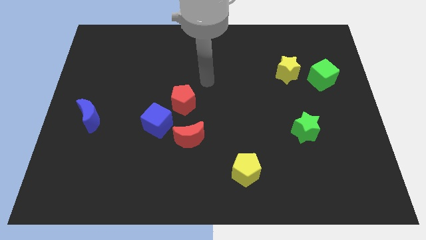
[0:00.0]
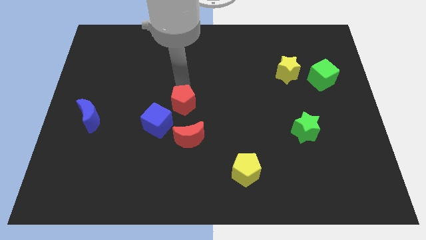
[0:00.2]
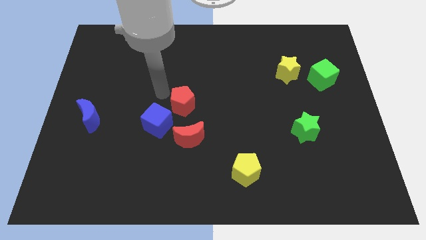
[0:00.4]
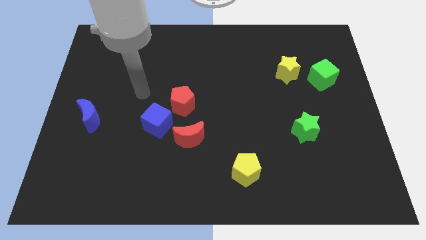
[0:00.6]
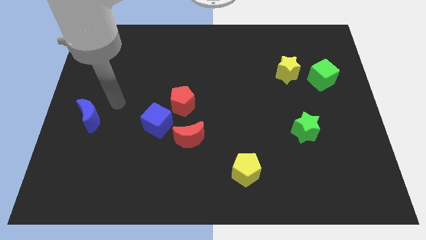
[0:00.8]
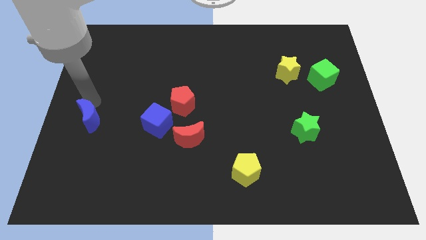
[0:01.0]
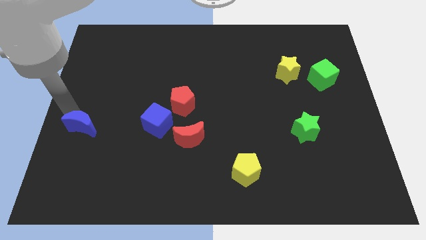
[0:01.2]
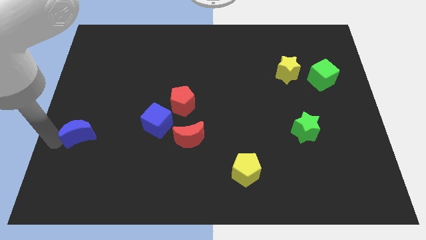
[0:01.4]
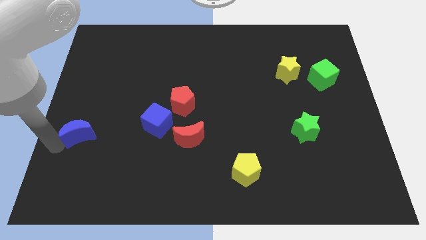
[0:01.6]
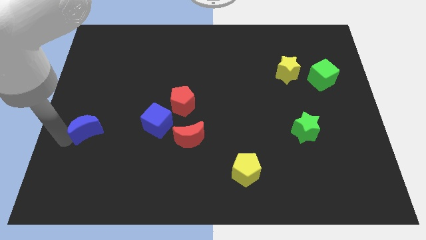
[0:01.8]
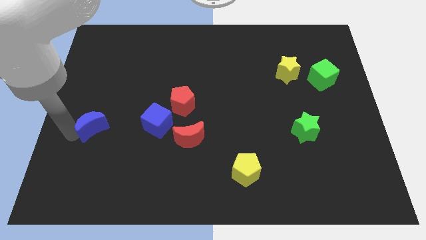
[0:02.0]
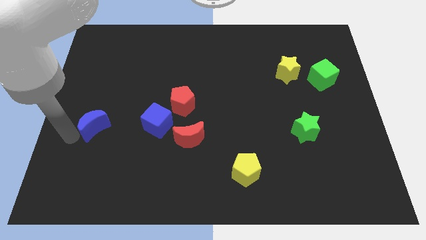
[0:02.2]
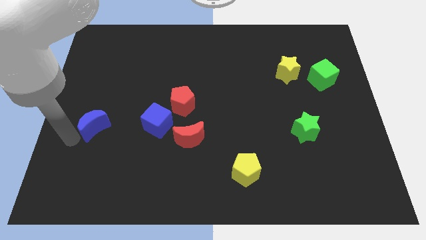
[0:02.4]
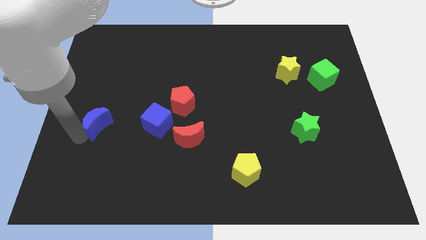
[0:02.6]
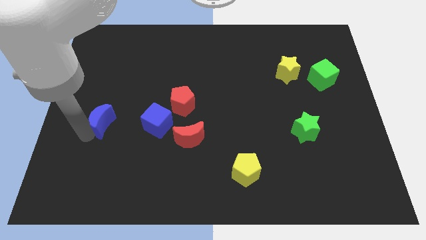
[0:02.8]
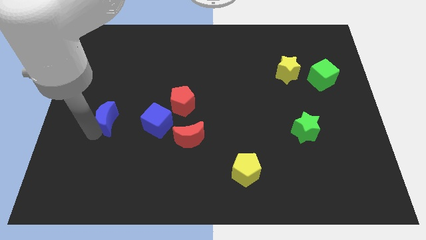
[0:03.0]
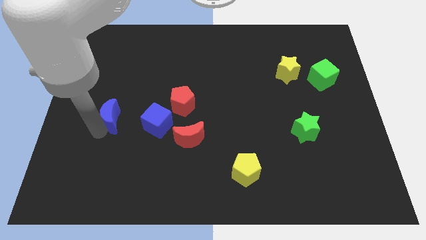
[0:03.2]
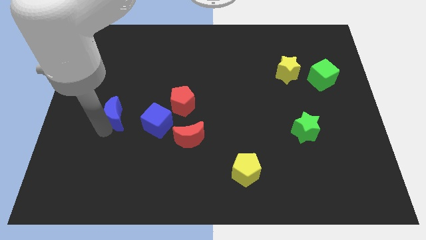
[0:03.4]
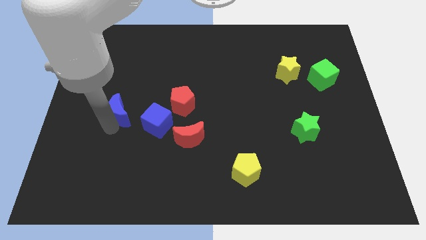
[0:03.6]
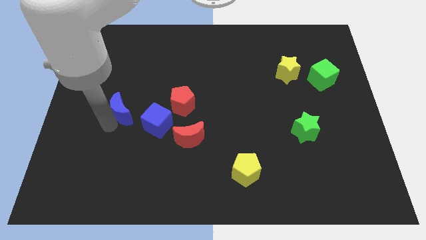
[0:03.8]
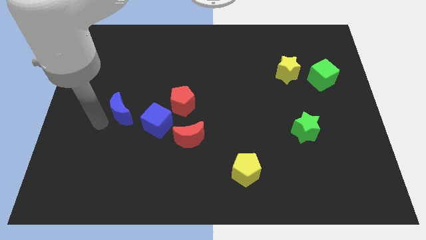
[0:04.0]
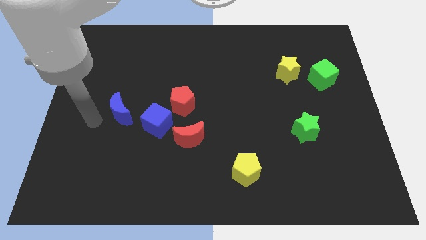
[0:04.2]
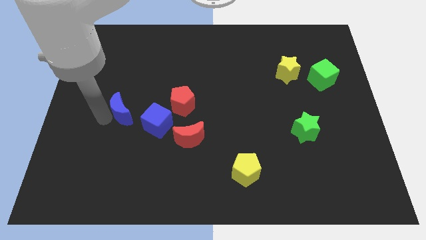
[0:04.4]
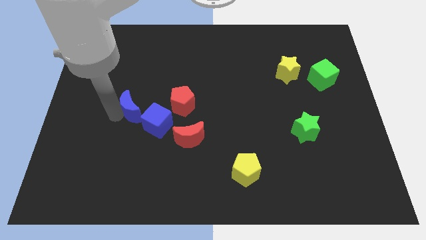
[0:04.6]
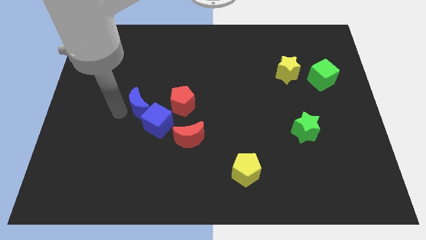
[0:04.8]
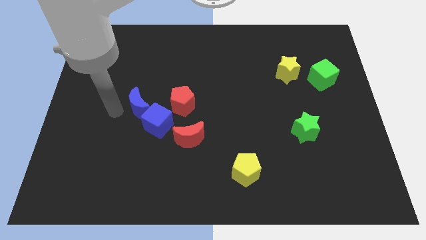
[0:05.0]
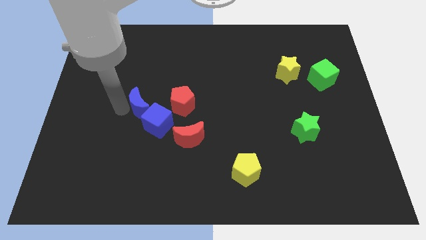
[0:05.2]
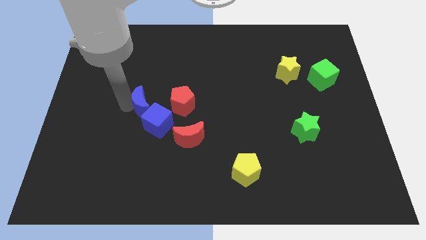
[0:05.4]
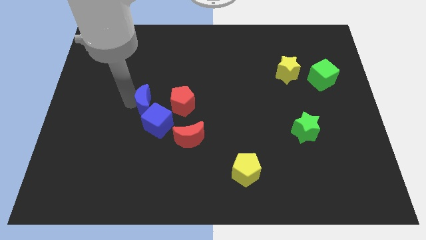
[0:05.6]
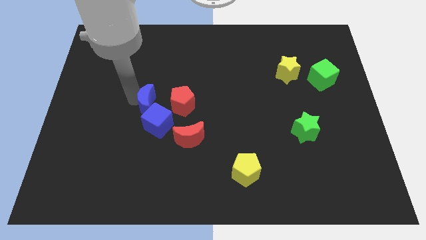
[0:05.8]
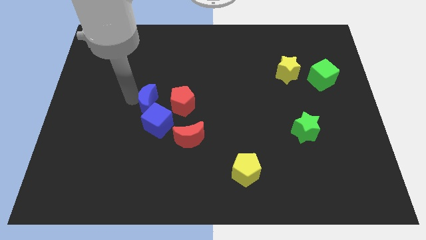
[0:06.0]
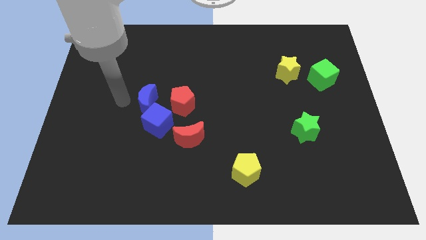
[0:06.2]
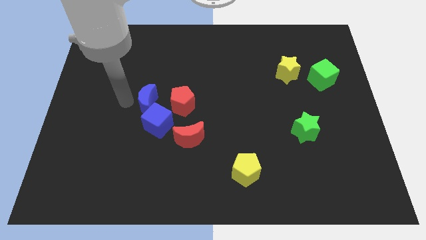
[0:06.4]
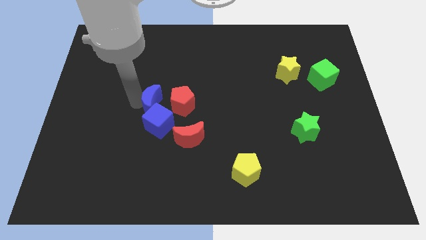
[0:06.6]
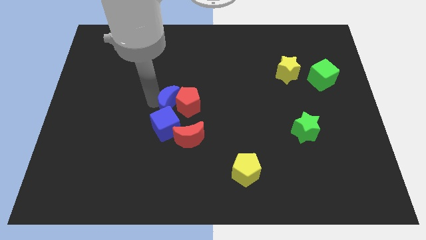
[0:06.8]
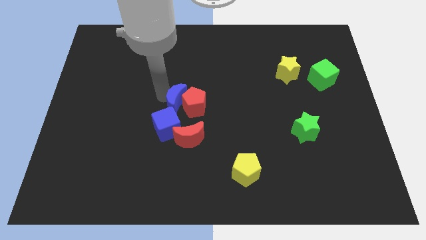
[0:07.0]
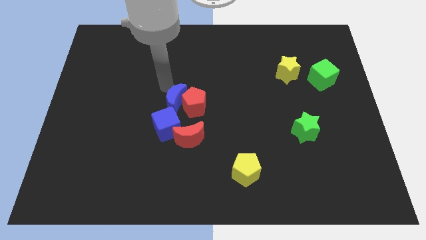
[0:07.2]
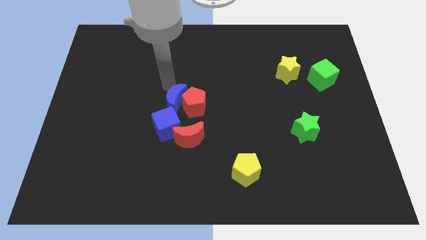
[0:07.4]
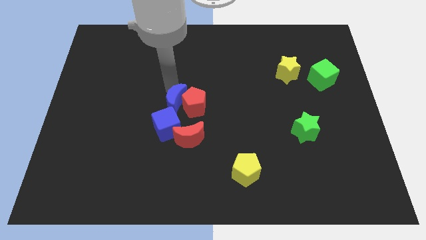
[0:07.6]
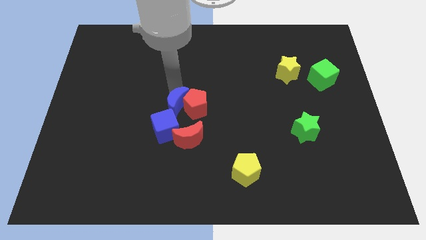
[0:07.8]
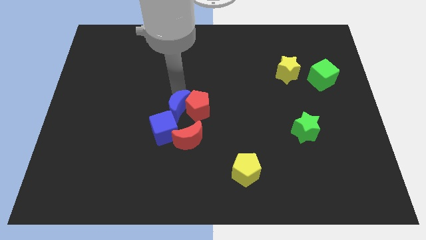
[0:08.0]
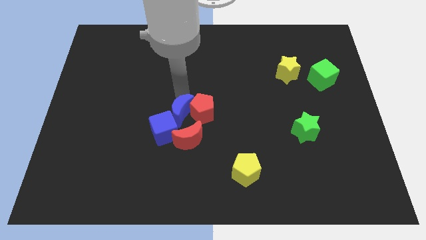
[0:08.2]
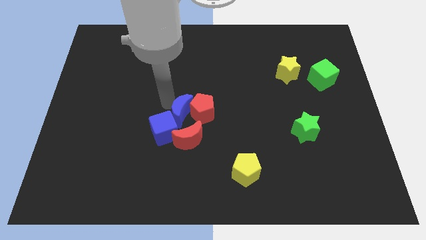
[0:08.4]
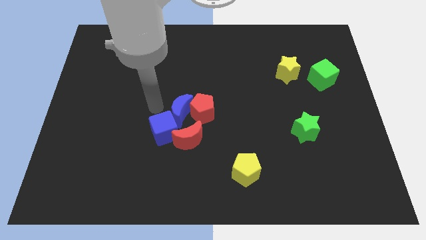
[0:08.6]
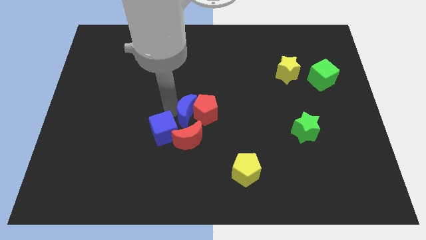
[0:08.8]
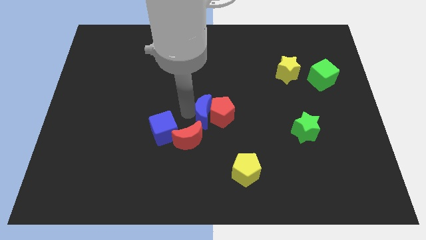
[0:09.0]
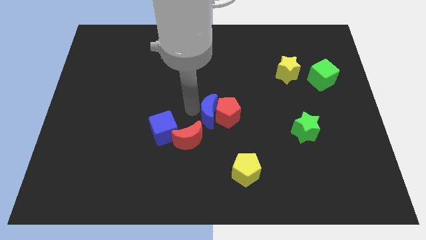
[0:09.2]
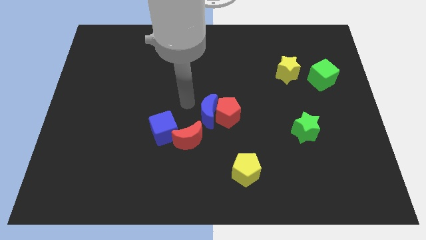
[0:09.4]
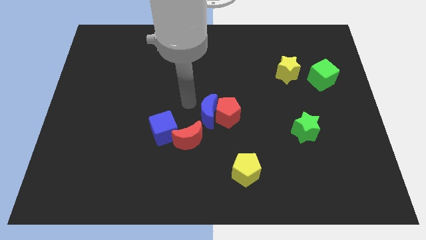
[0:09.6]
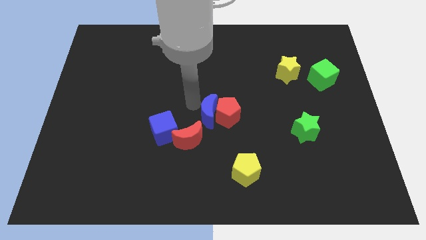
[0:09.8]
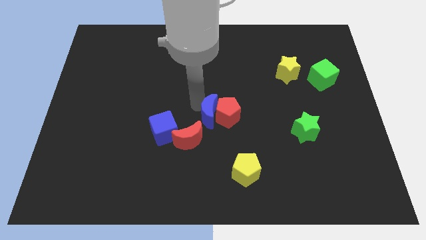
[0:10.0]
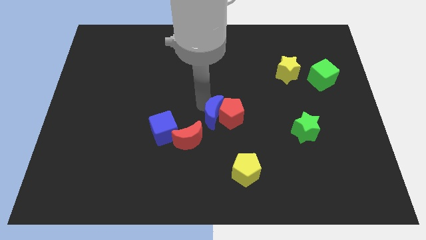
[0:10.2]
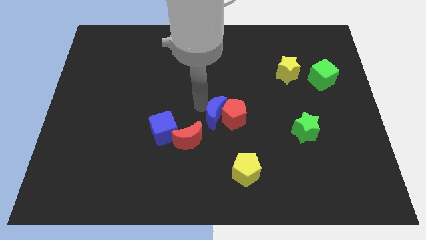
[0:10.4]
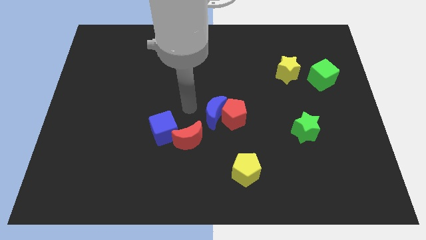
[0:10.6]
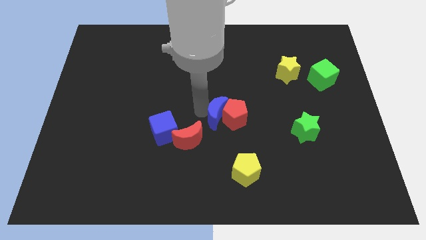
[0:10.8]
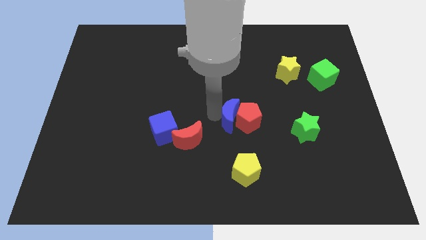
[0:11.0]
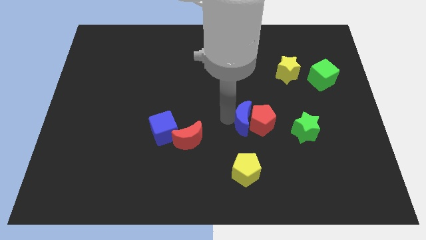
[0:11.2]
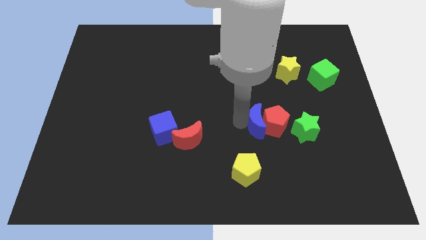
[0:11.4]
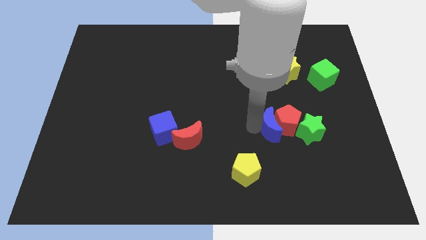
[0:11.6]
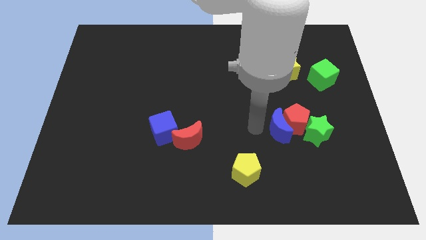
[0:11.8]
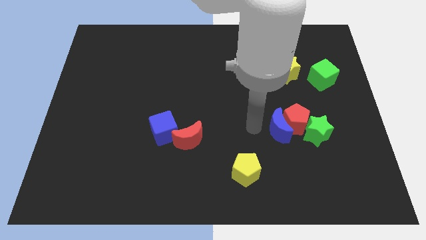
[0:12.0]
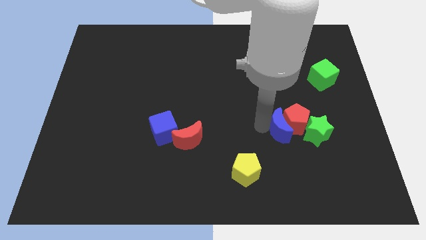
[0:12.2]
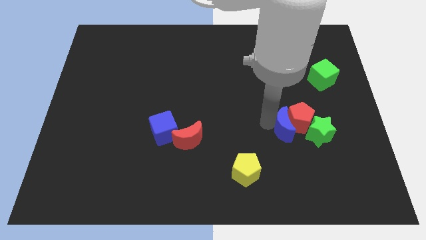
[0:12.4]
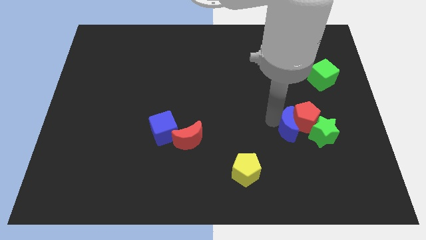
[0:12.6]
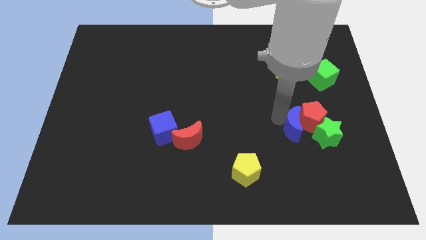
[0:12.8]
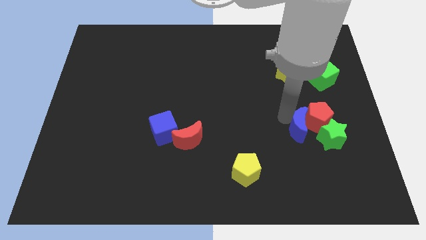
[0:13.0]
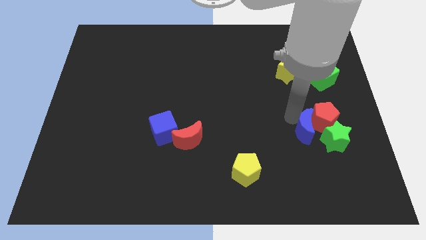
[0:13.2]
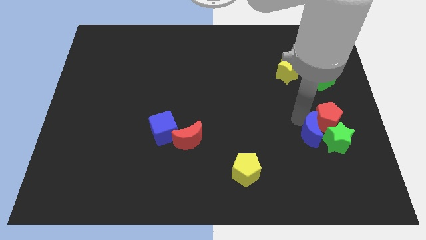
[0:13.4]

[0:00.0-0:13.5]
push the blue moon close to the green star
